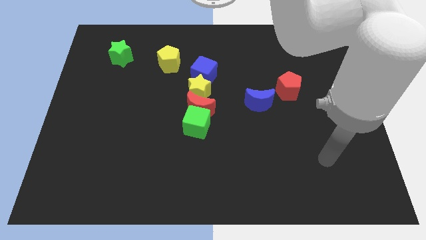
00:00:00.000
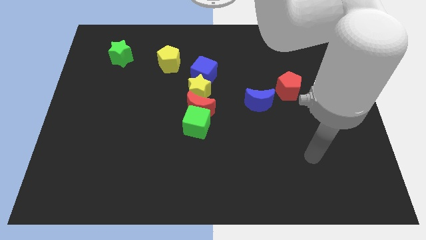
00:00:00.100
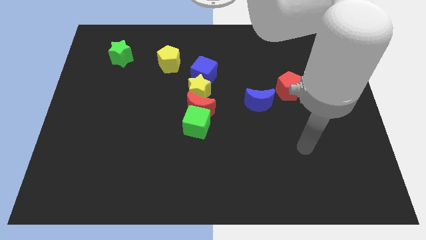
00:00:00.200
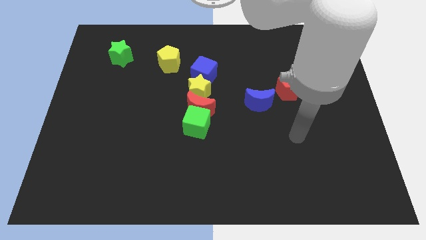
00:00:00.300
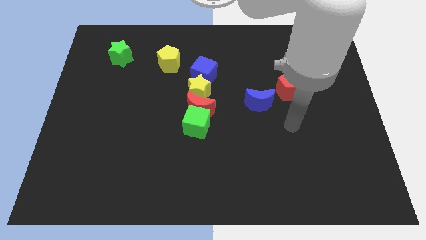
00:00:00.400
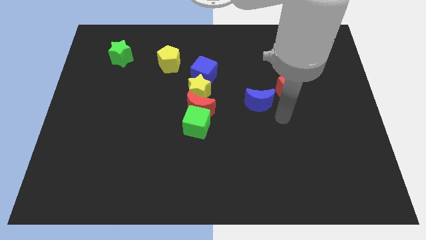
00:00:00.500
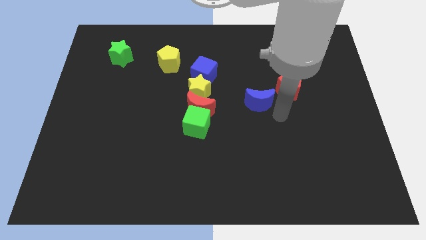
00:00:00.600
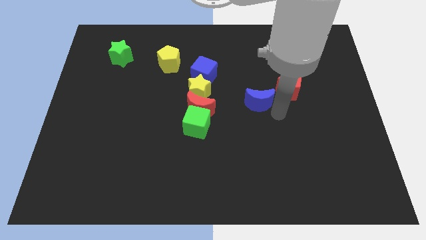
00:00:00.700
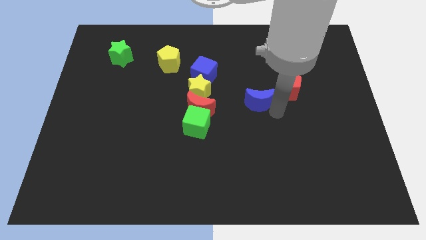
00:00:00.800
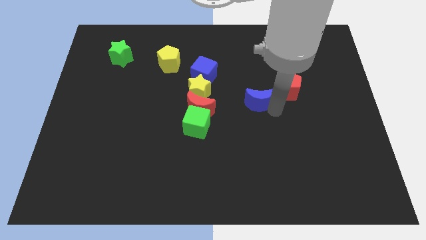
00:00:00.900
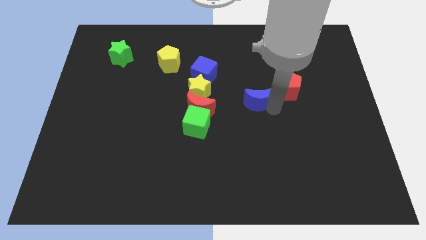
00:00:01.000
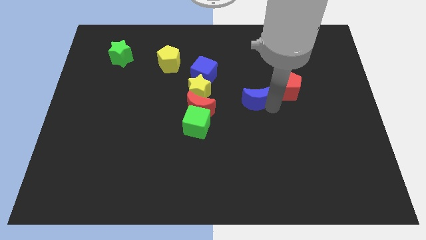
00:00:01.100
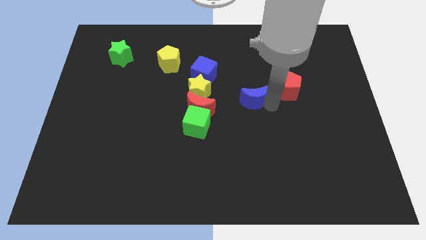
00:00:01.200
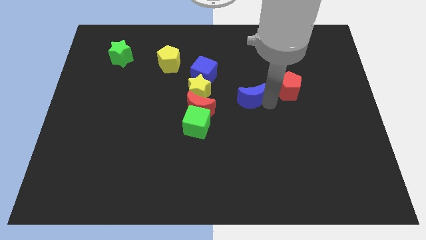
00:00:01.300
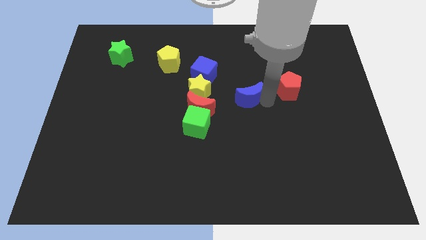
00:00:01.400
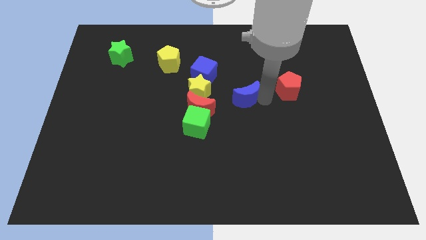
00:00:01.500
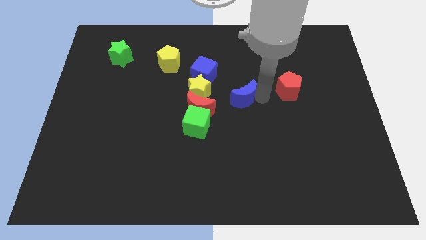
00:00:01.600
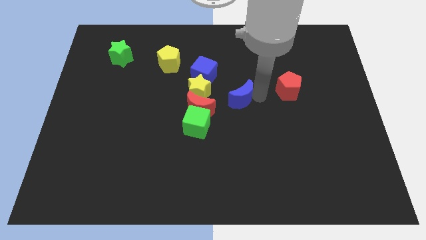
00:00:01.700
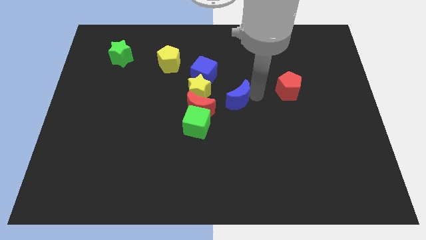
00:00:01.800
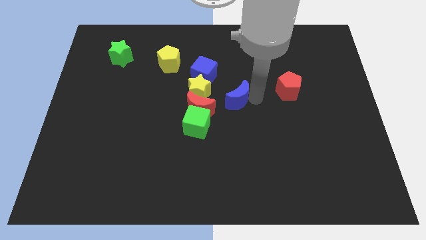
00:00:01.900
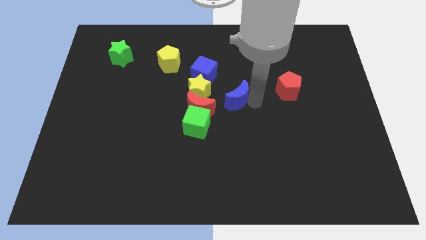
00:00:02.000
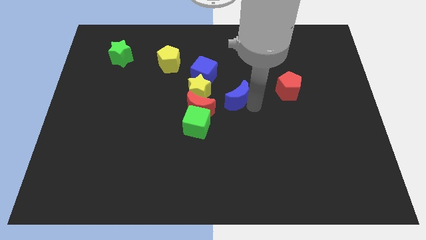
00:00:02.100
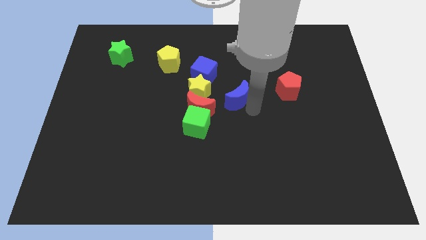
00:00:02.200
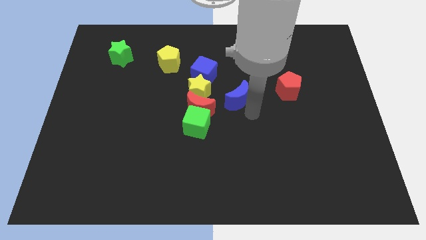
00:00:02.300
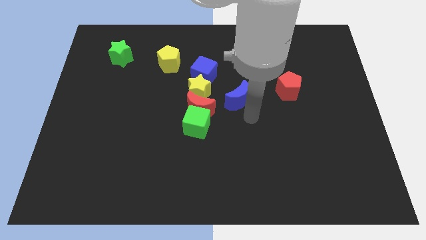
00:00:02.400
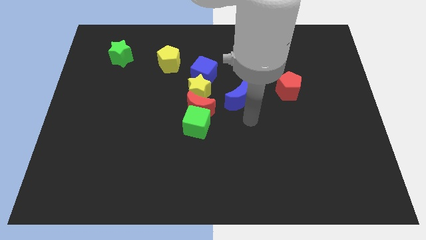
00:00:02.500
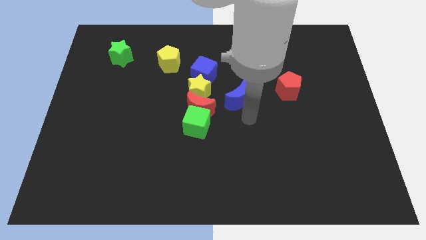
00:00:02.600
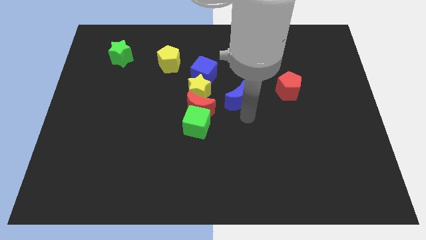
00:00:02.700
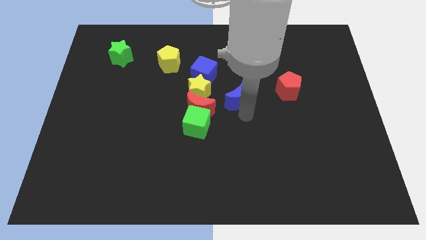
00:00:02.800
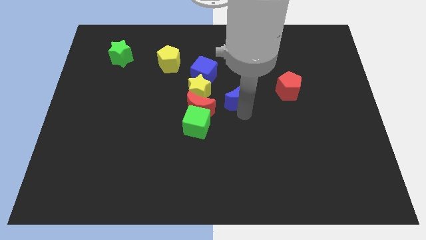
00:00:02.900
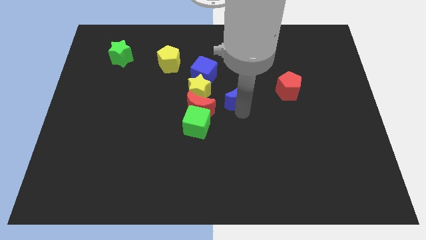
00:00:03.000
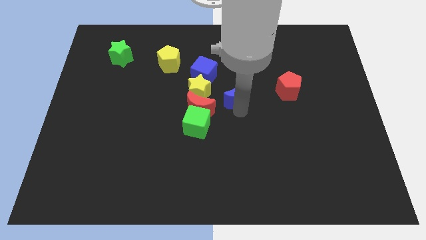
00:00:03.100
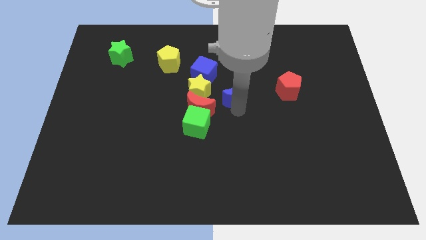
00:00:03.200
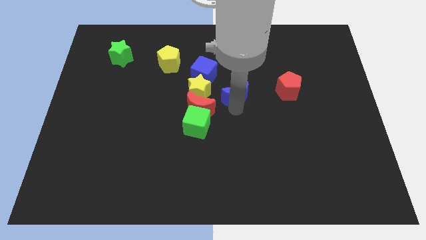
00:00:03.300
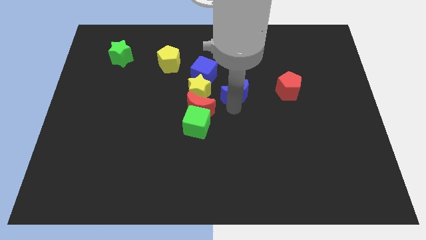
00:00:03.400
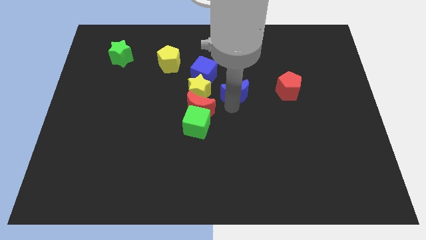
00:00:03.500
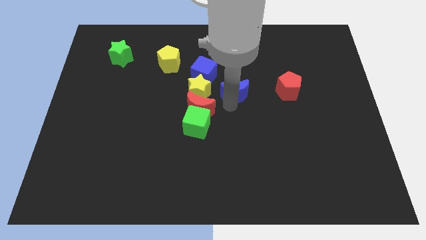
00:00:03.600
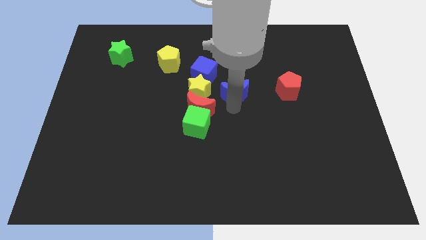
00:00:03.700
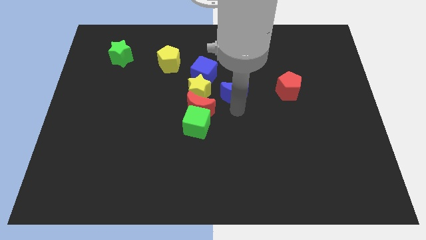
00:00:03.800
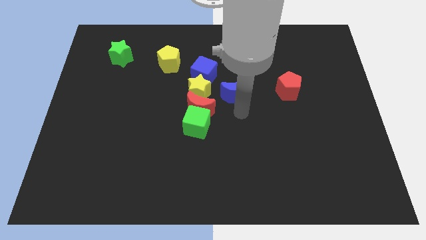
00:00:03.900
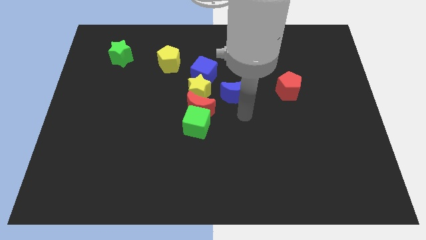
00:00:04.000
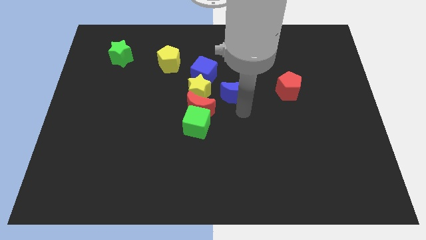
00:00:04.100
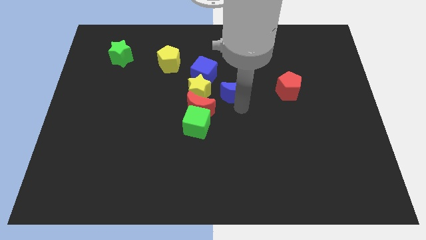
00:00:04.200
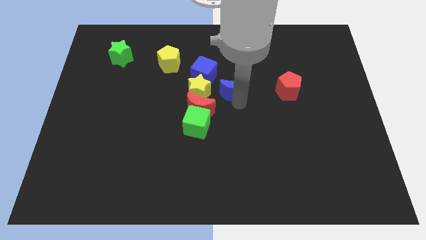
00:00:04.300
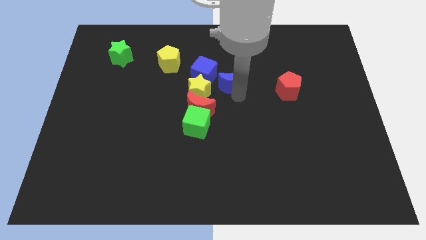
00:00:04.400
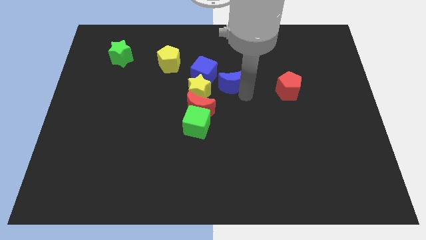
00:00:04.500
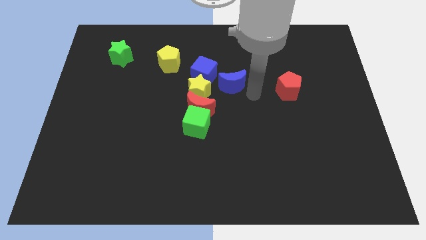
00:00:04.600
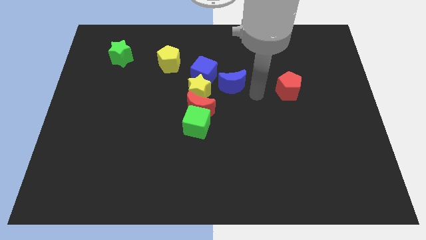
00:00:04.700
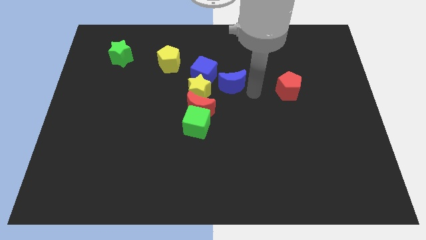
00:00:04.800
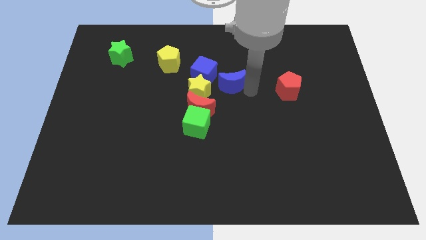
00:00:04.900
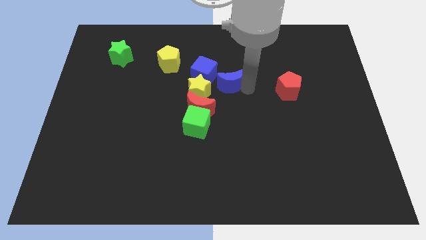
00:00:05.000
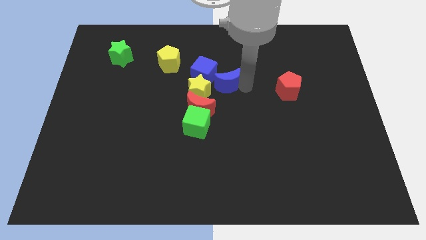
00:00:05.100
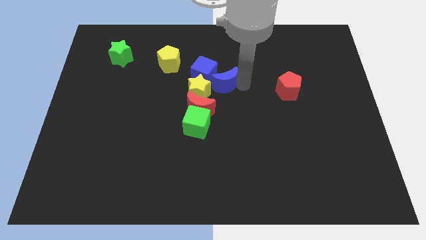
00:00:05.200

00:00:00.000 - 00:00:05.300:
move the blue moon to the blue cube

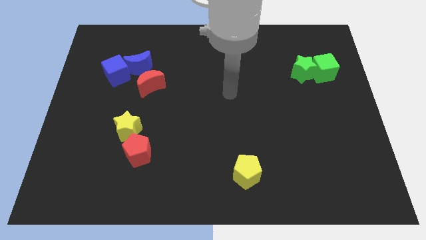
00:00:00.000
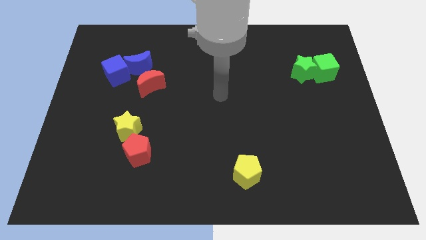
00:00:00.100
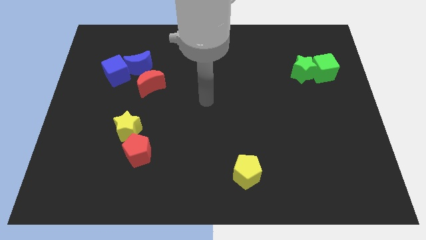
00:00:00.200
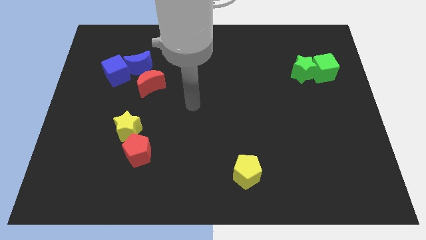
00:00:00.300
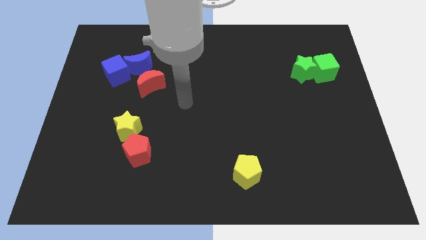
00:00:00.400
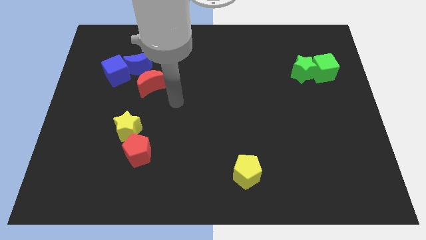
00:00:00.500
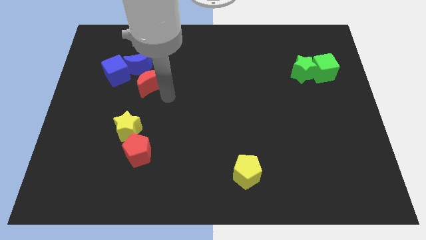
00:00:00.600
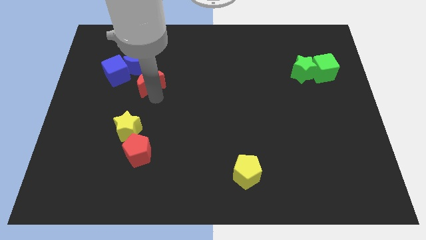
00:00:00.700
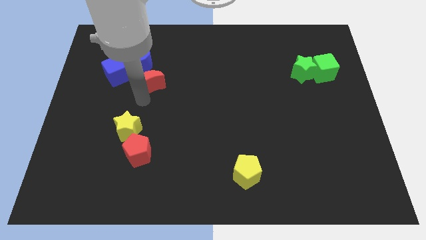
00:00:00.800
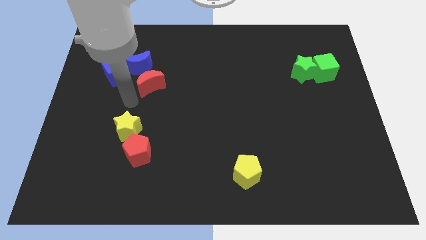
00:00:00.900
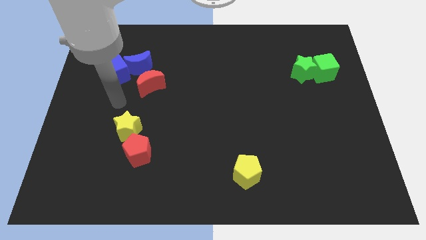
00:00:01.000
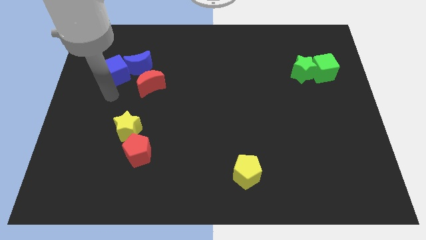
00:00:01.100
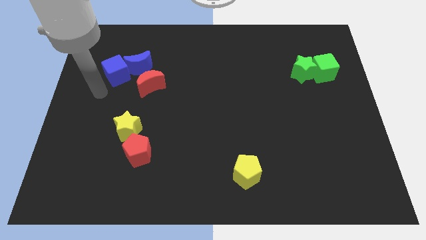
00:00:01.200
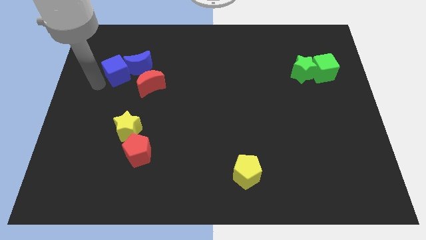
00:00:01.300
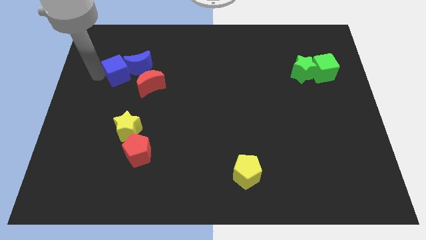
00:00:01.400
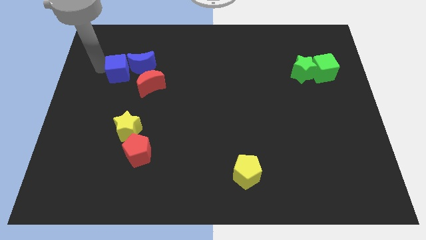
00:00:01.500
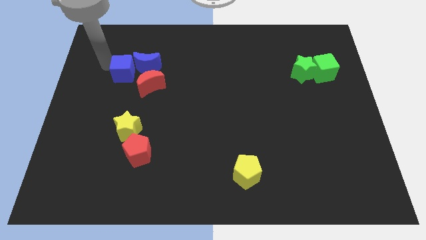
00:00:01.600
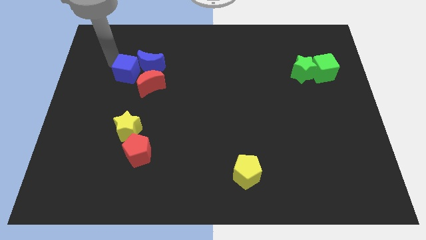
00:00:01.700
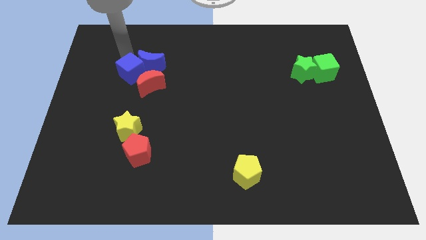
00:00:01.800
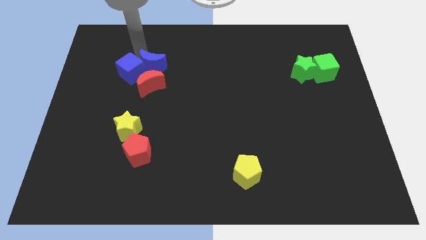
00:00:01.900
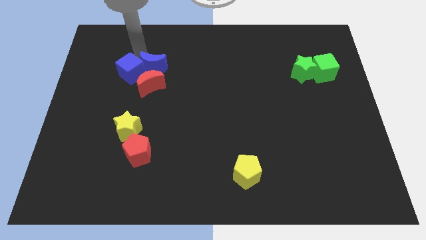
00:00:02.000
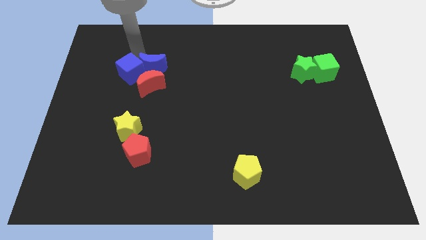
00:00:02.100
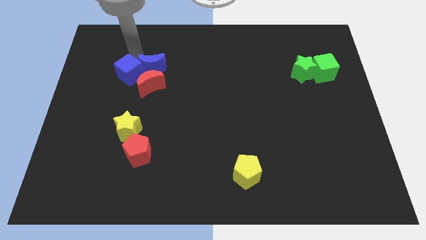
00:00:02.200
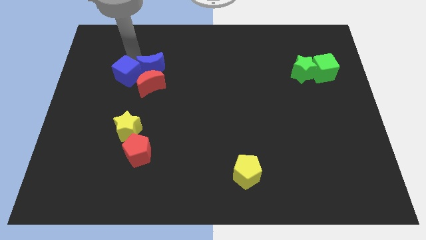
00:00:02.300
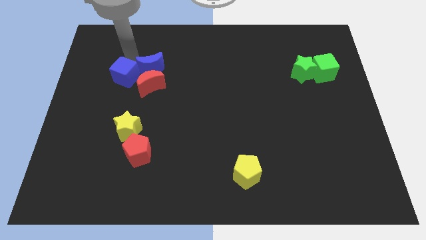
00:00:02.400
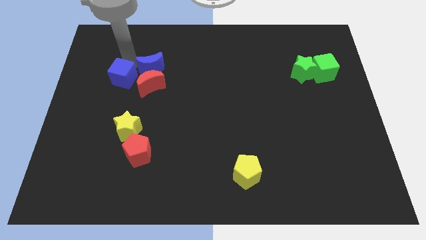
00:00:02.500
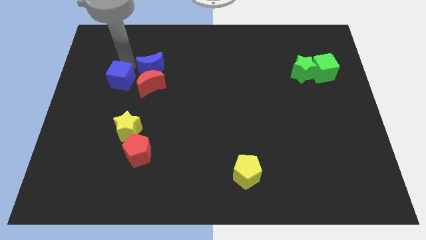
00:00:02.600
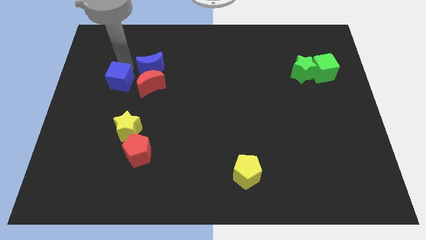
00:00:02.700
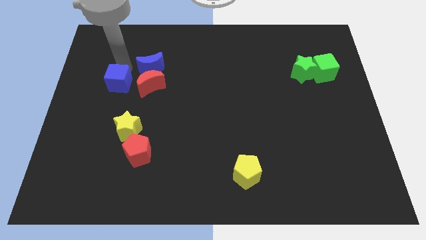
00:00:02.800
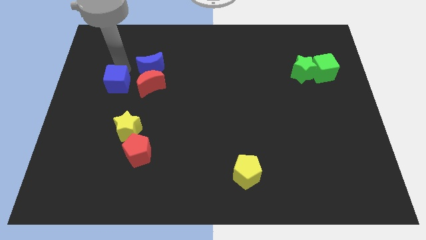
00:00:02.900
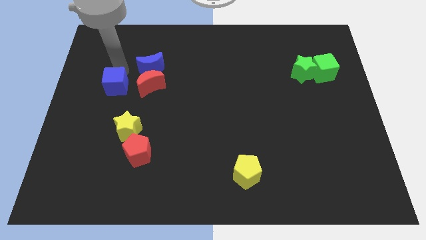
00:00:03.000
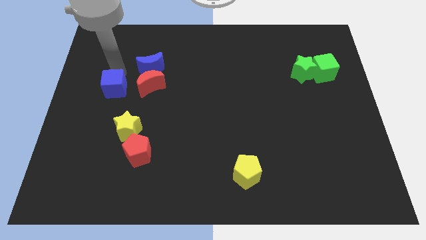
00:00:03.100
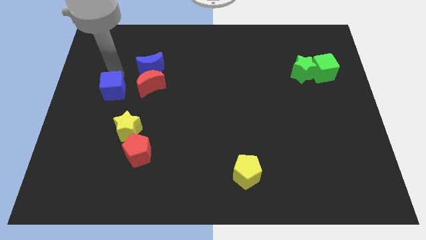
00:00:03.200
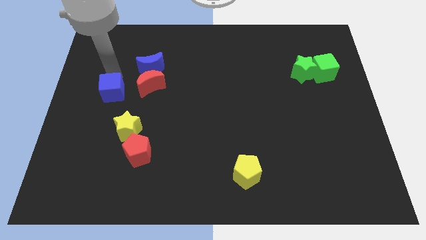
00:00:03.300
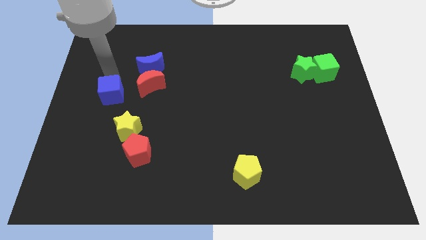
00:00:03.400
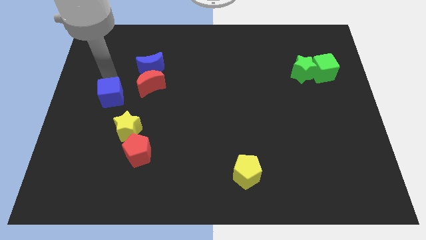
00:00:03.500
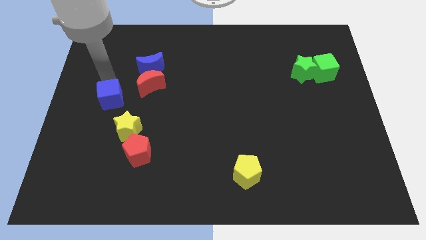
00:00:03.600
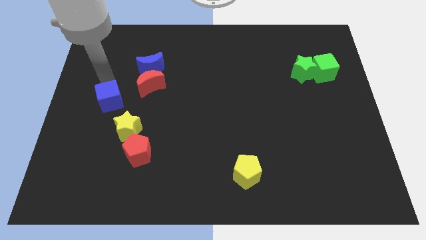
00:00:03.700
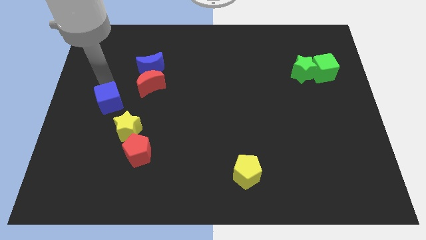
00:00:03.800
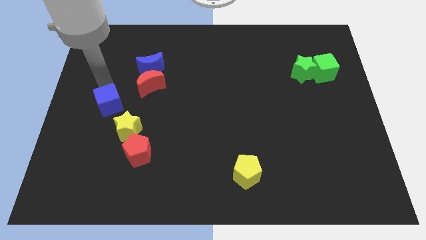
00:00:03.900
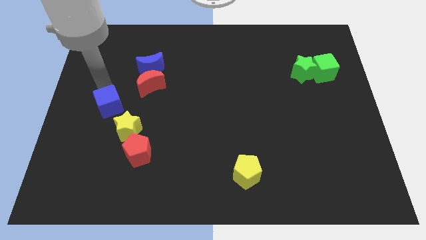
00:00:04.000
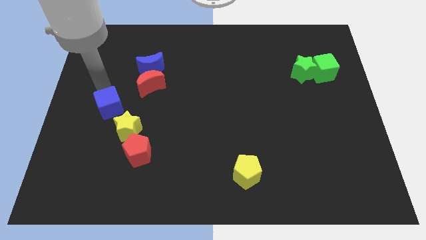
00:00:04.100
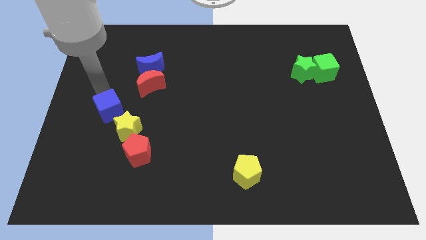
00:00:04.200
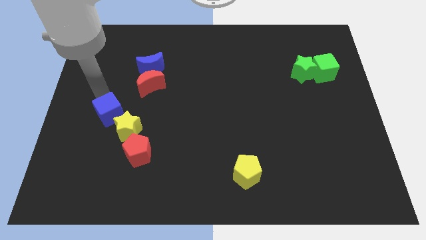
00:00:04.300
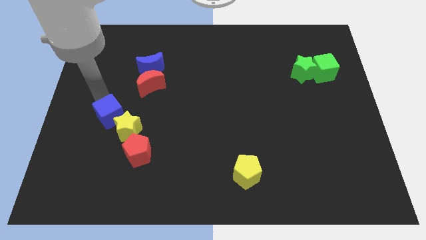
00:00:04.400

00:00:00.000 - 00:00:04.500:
move the blue cube close to the yellow star
